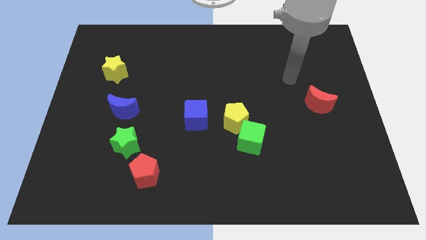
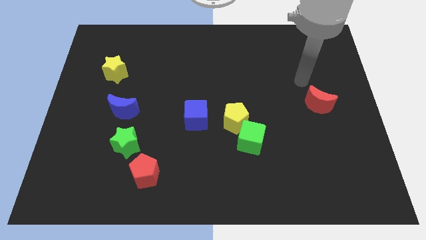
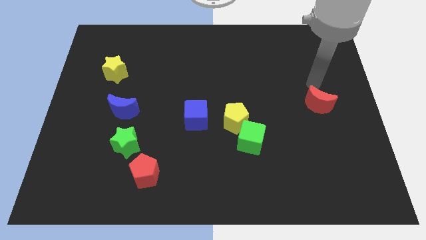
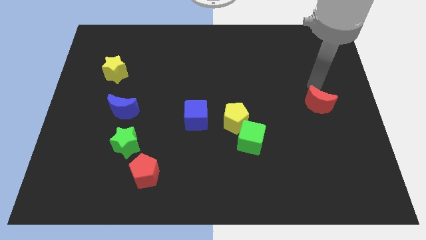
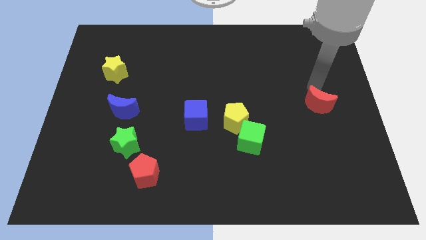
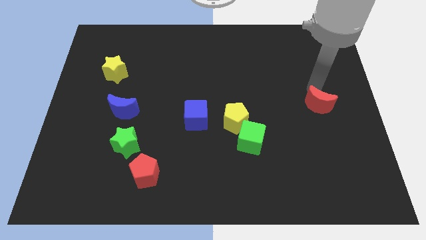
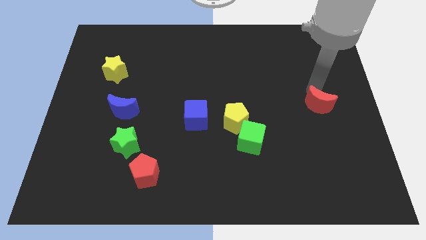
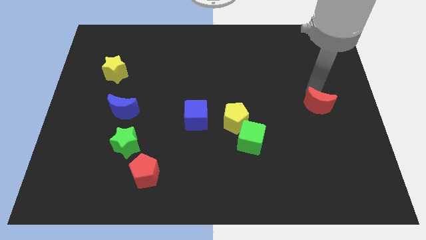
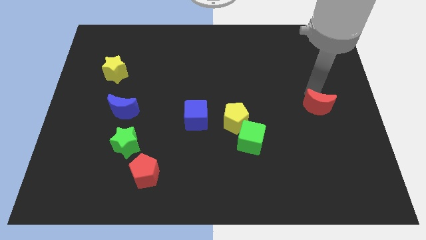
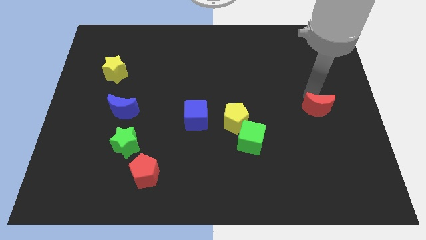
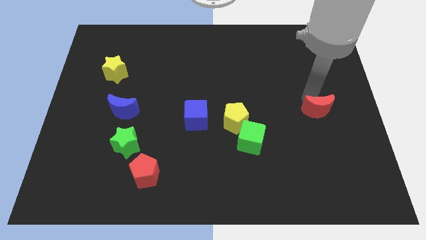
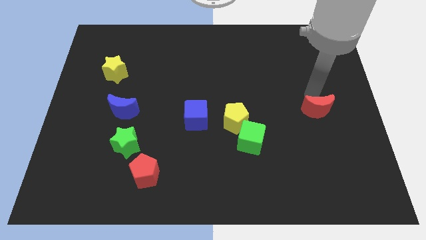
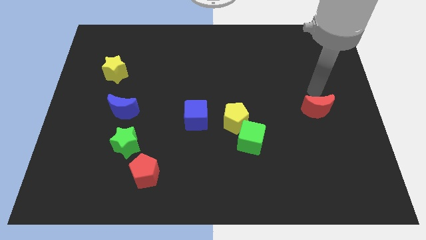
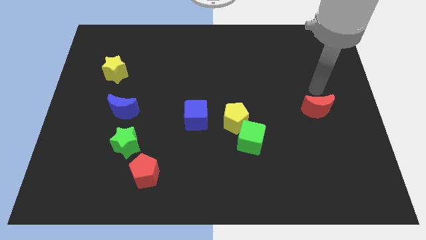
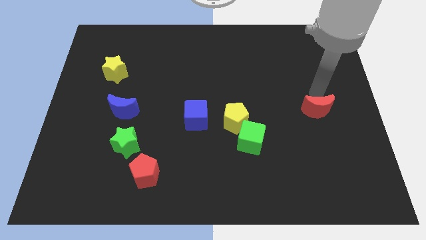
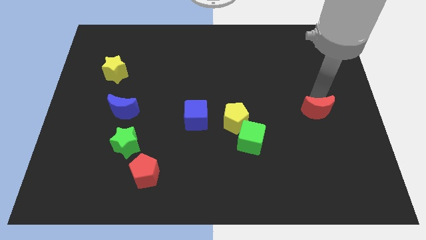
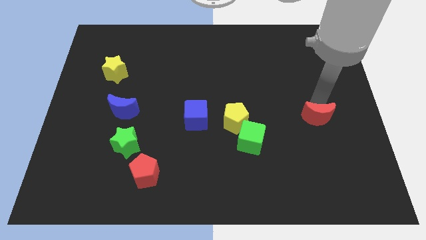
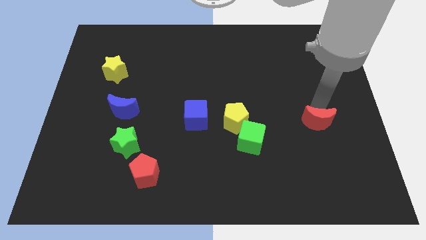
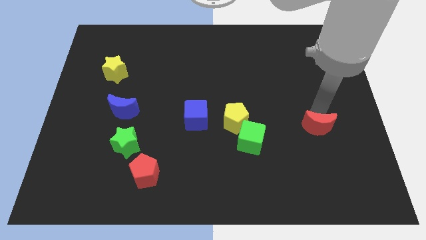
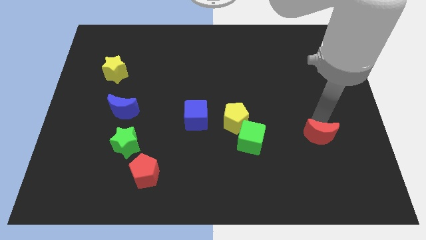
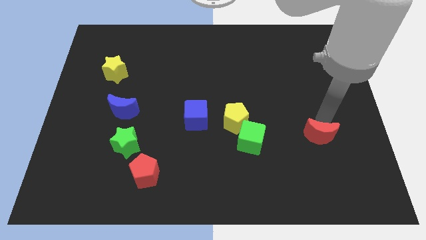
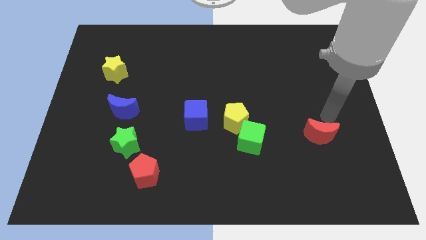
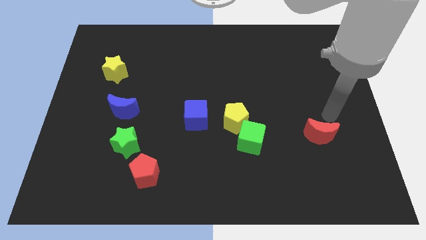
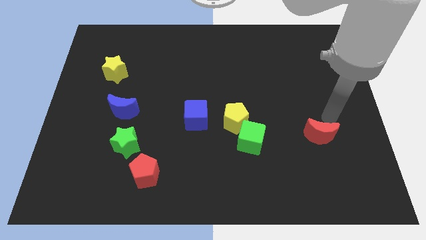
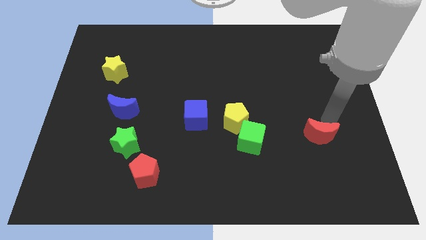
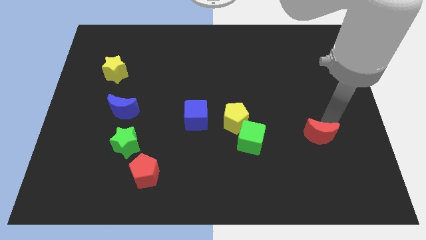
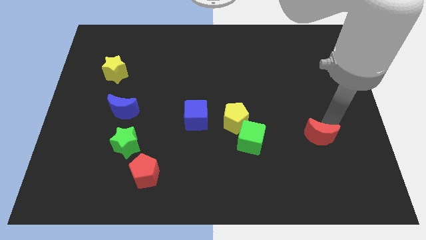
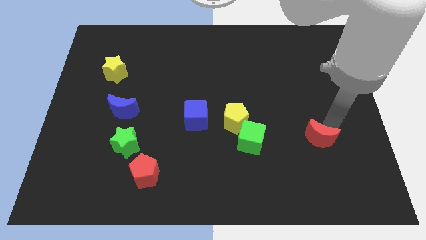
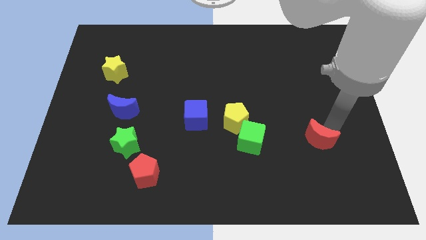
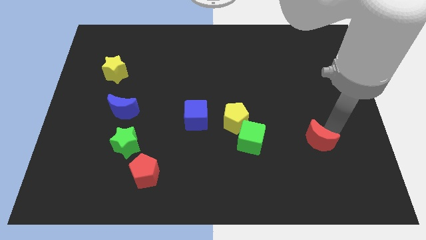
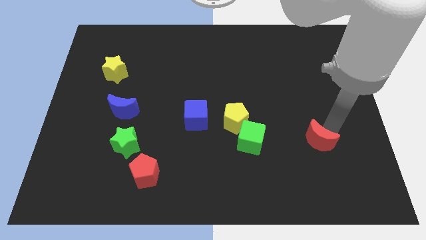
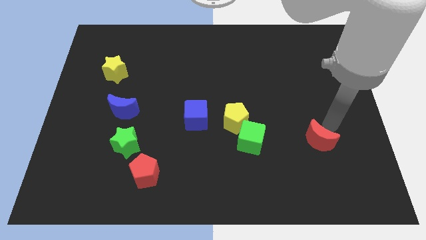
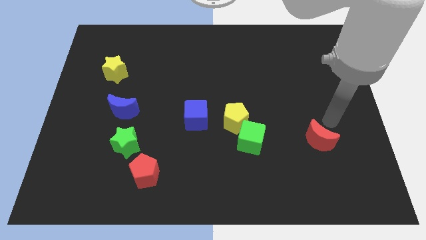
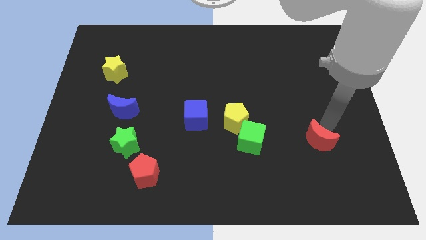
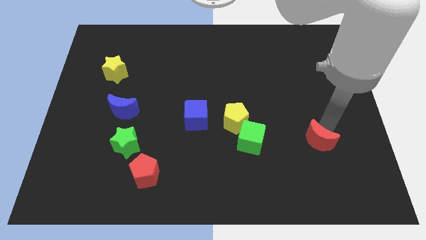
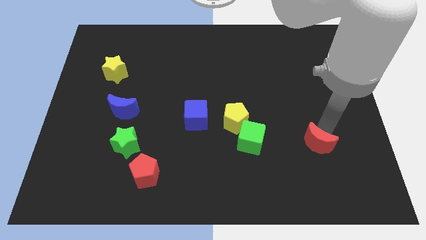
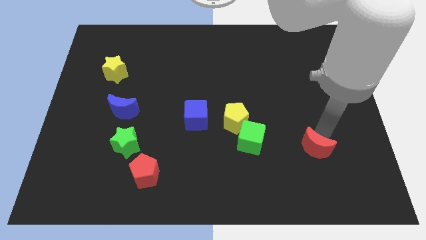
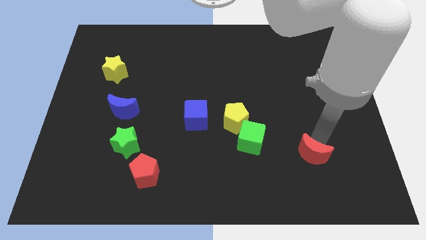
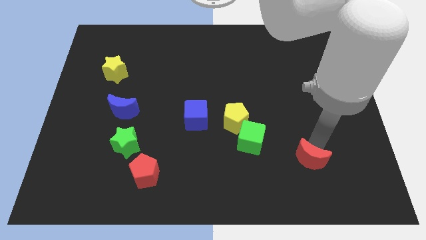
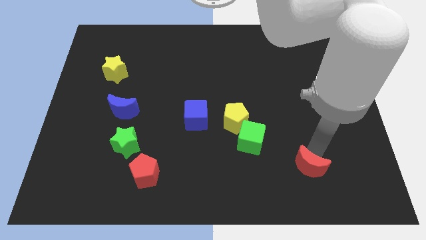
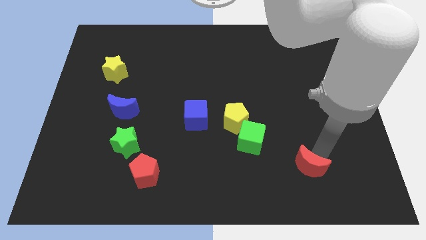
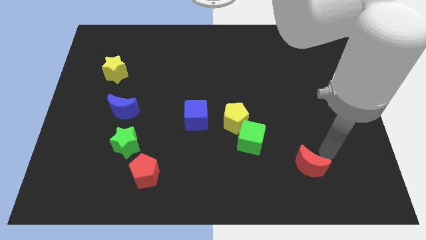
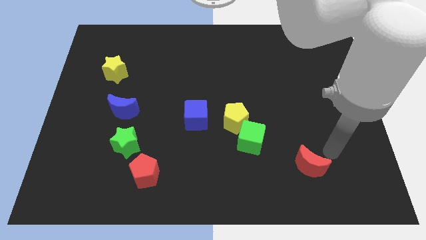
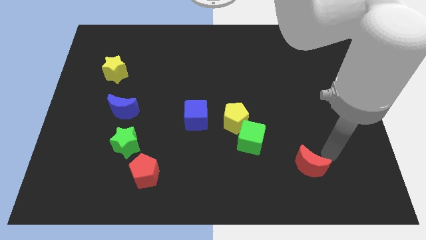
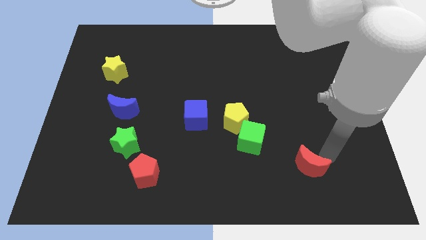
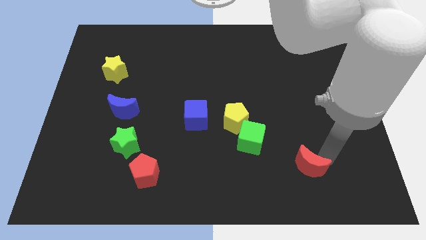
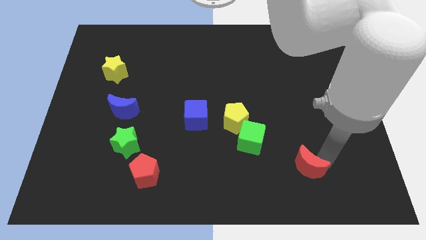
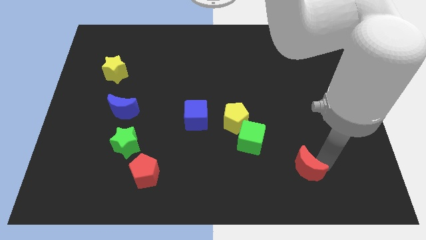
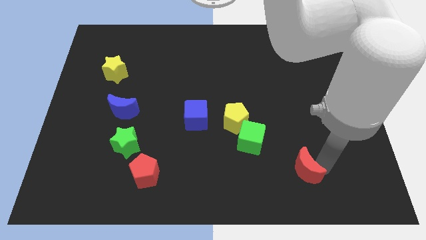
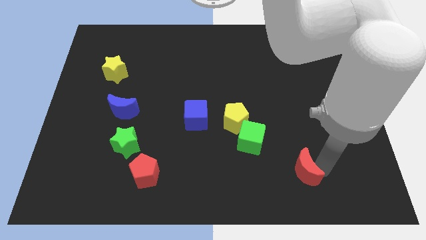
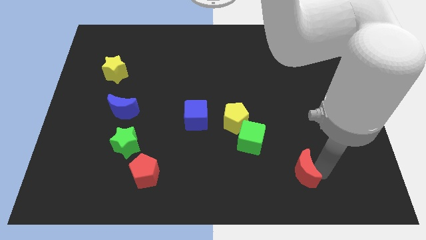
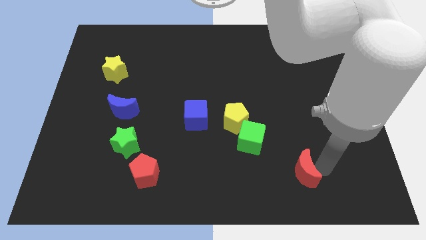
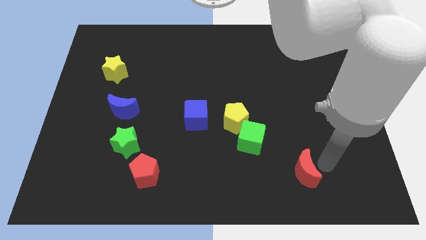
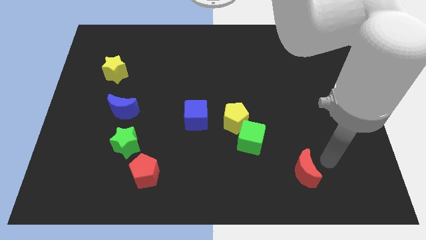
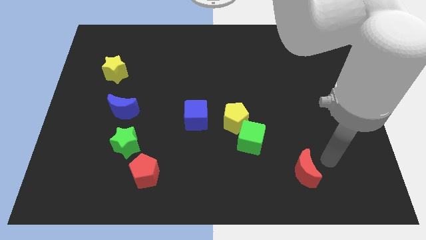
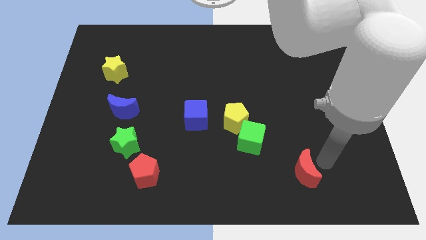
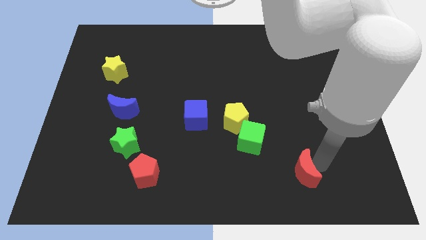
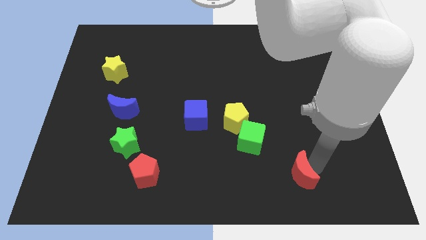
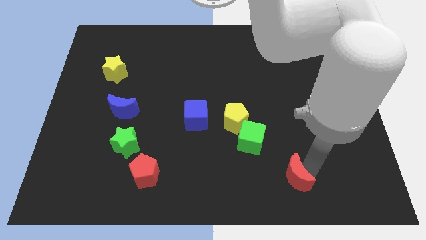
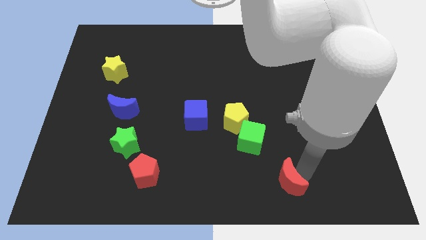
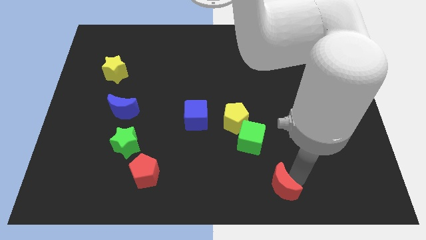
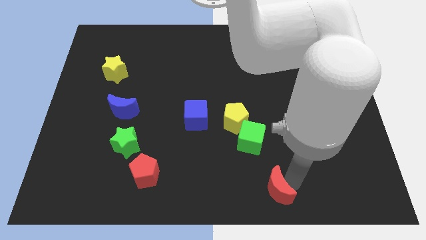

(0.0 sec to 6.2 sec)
move the red moon to the bottom side

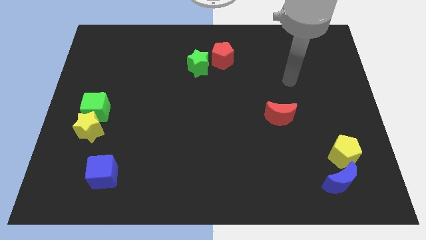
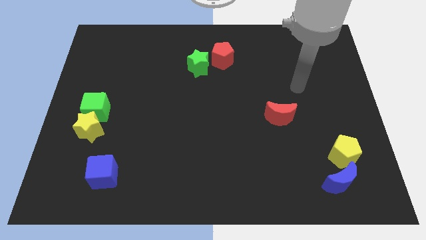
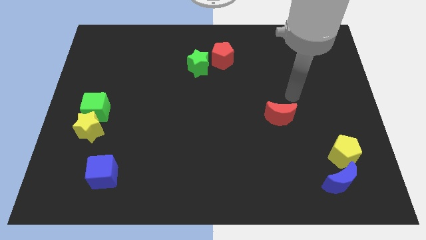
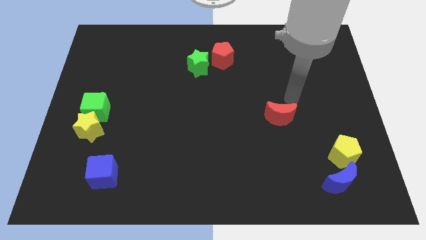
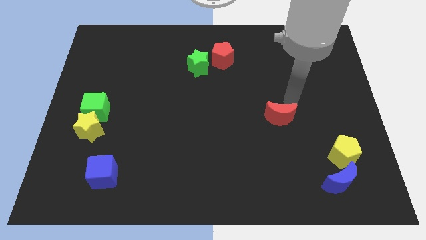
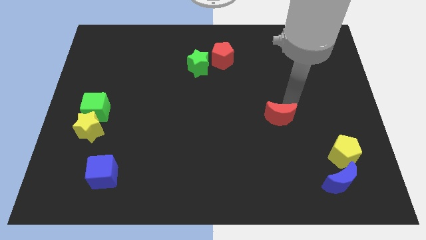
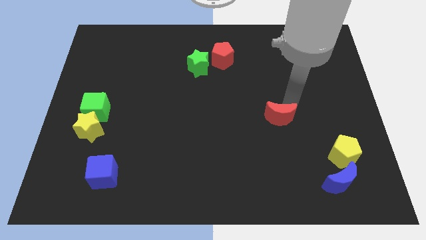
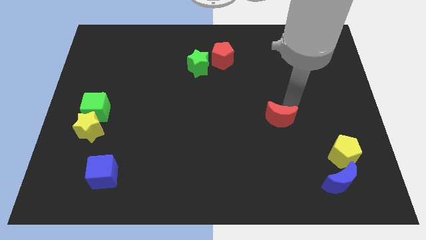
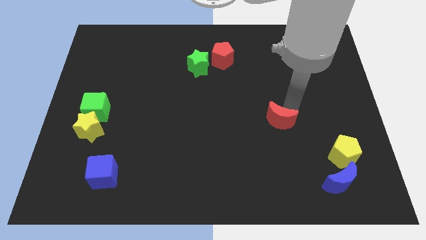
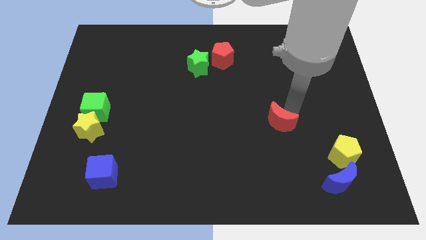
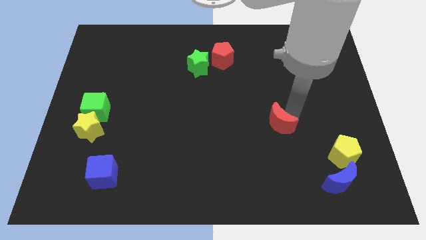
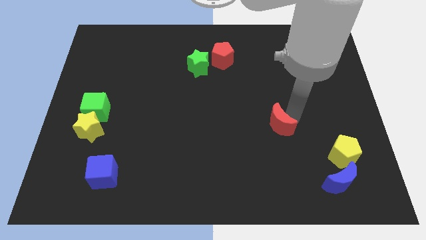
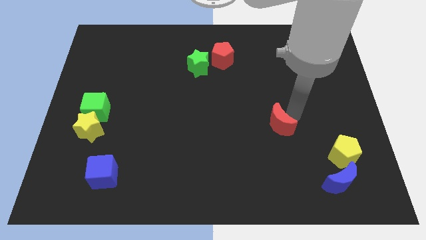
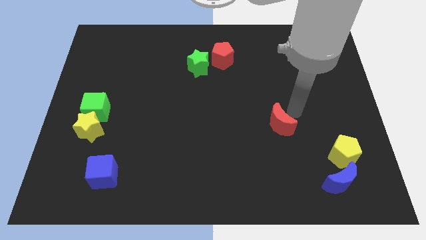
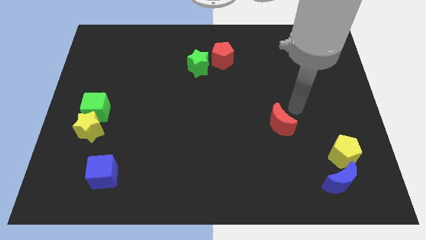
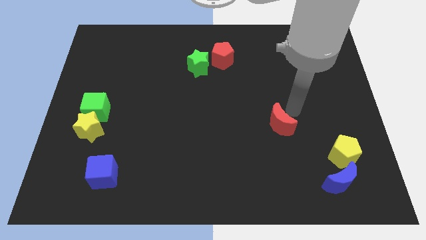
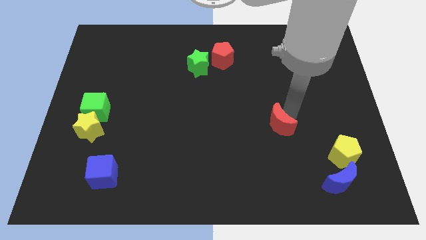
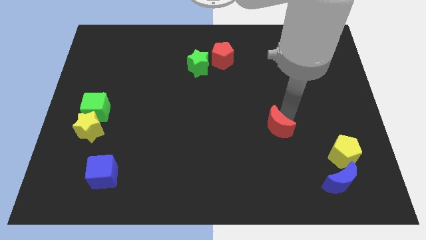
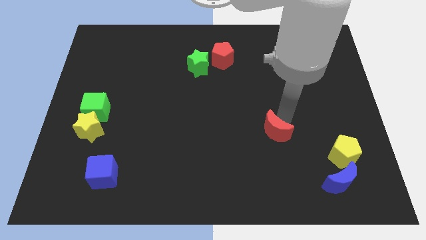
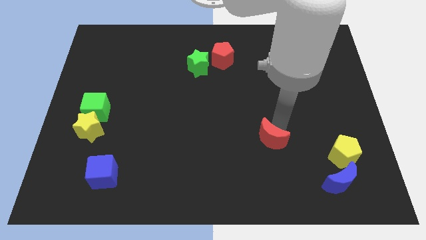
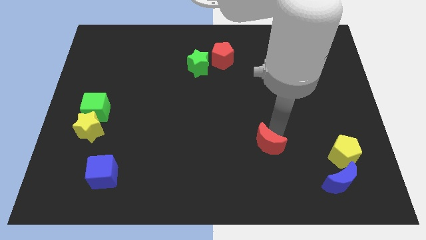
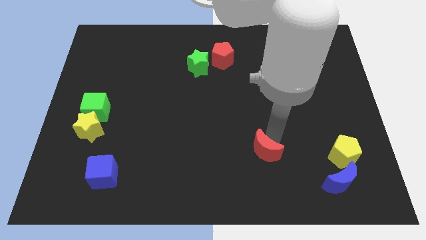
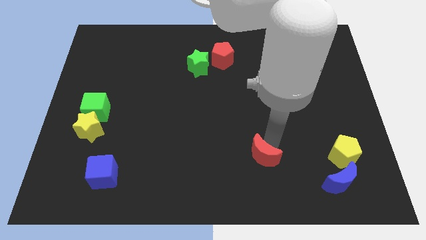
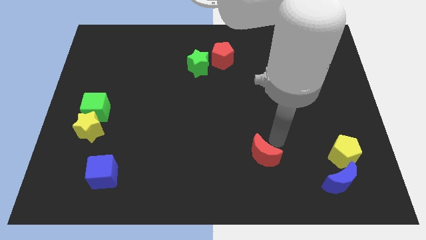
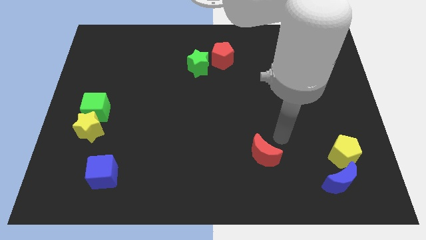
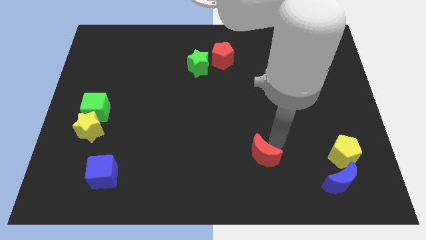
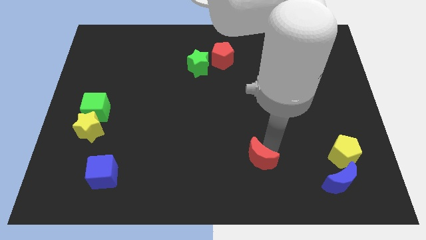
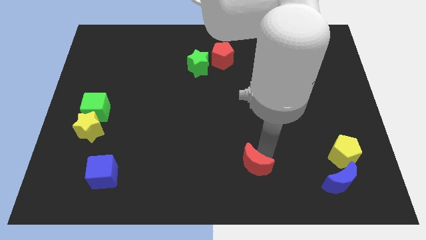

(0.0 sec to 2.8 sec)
push the red moon to the bottom
